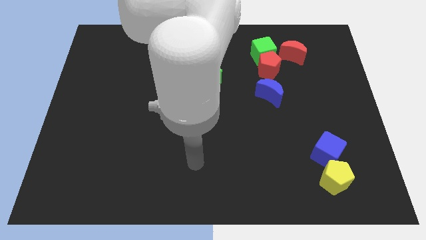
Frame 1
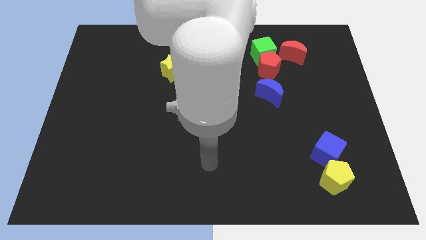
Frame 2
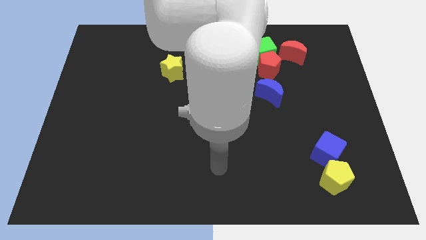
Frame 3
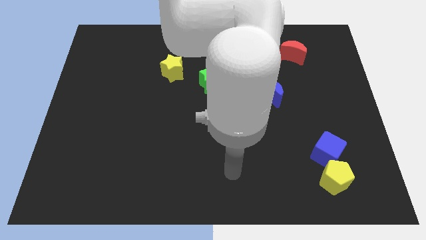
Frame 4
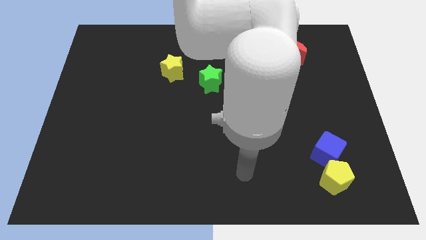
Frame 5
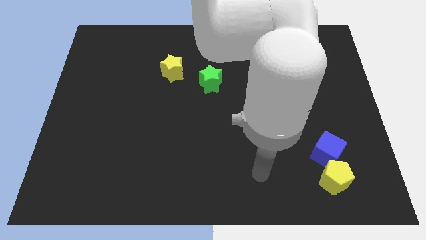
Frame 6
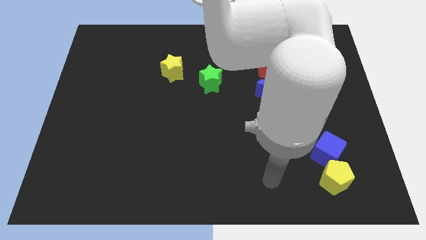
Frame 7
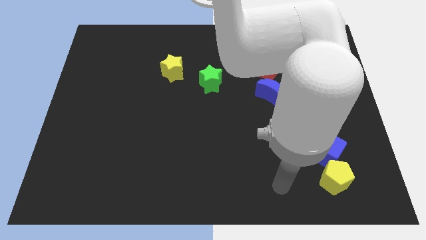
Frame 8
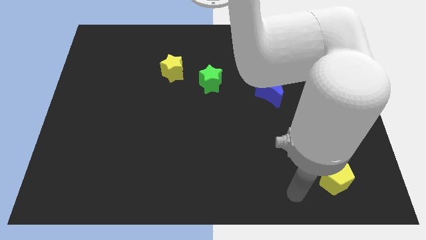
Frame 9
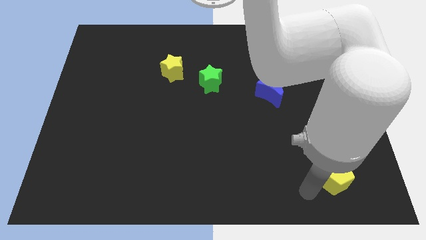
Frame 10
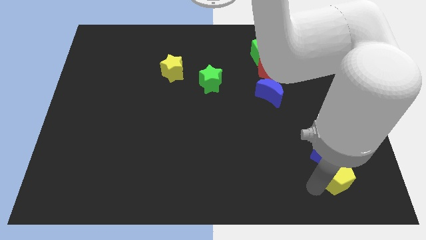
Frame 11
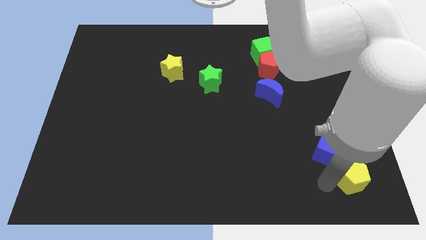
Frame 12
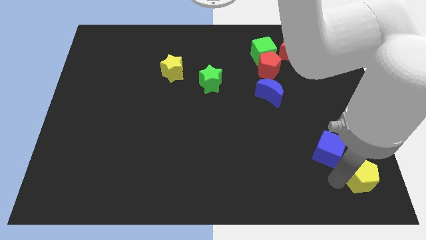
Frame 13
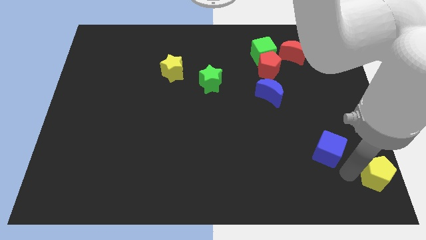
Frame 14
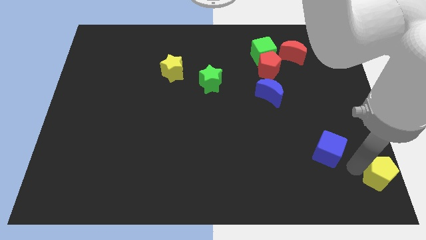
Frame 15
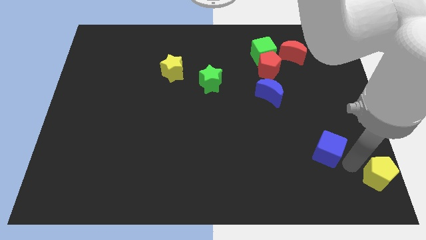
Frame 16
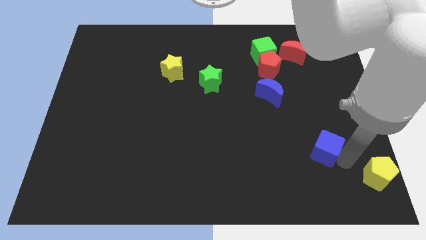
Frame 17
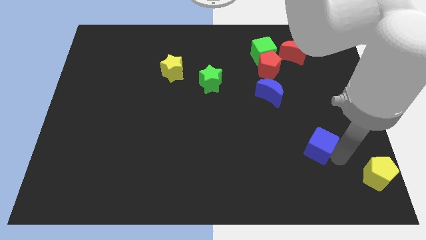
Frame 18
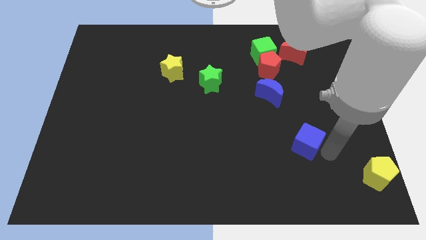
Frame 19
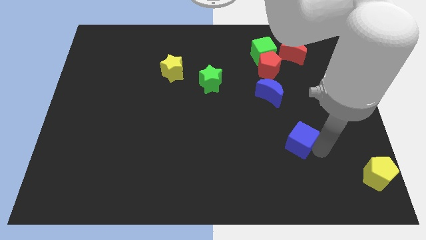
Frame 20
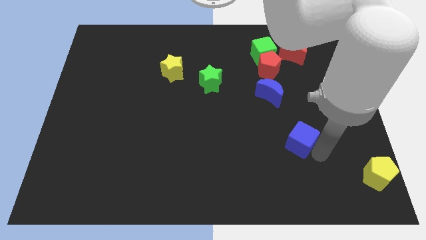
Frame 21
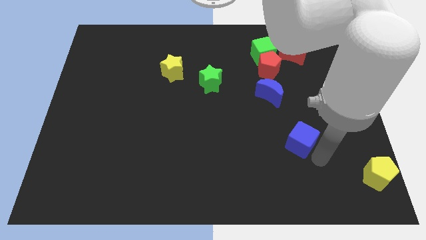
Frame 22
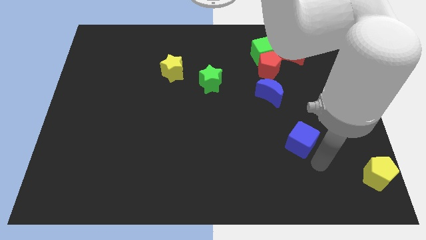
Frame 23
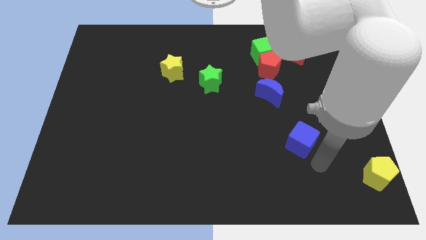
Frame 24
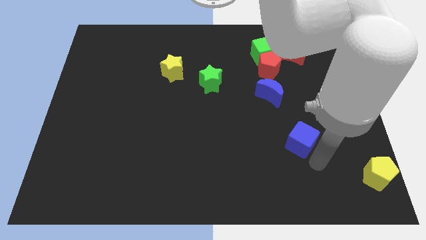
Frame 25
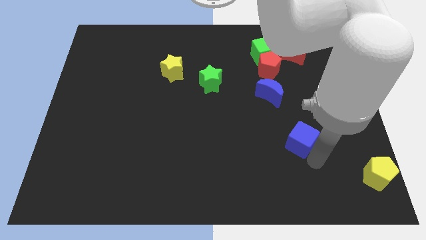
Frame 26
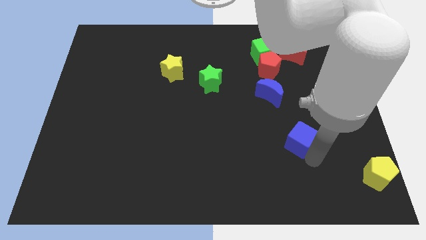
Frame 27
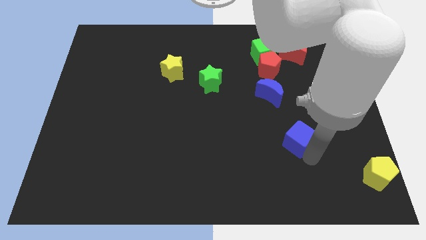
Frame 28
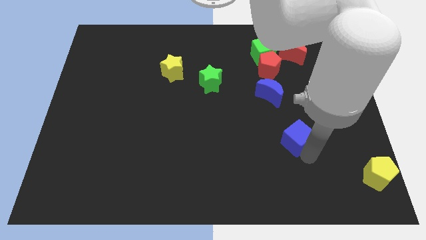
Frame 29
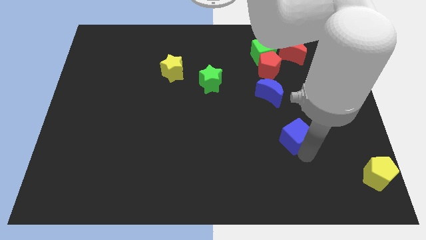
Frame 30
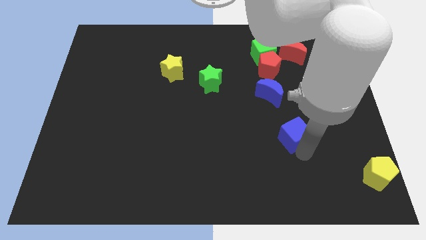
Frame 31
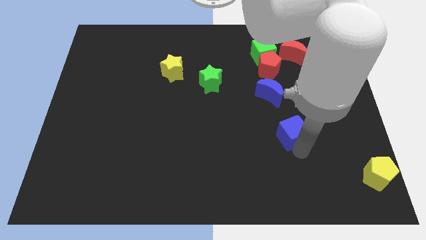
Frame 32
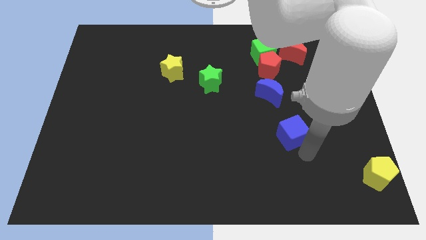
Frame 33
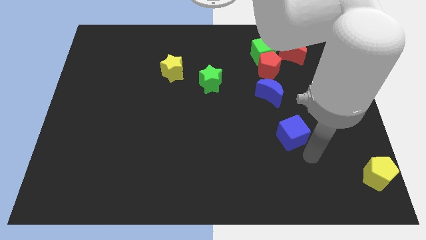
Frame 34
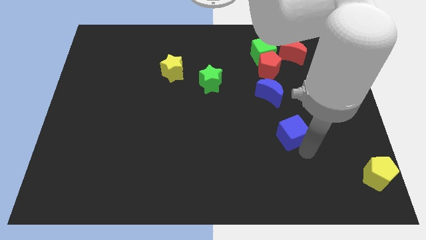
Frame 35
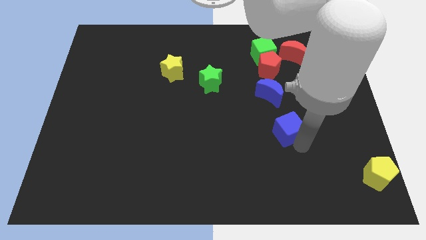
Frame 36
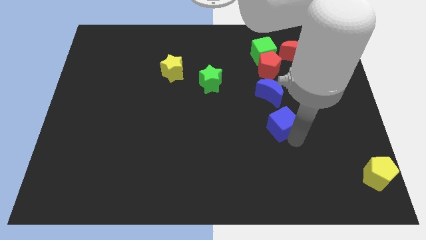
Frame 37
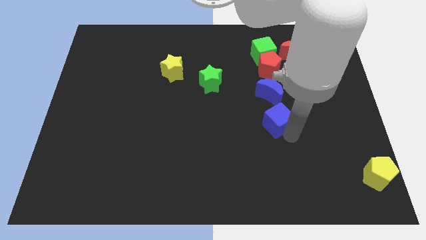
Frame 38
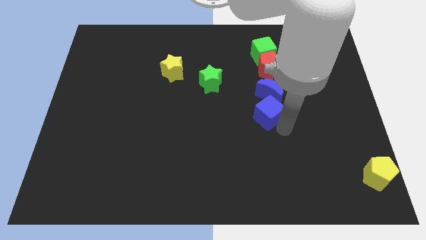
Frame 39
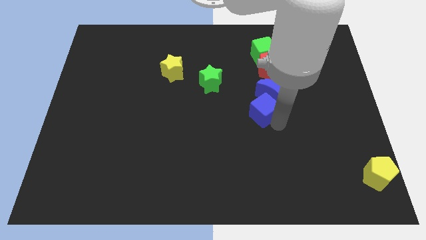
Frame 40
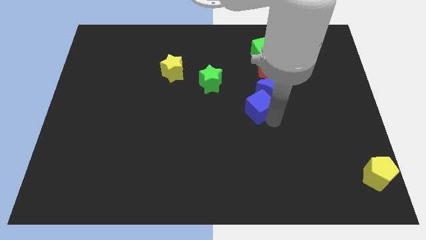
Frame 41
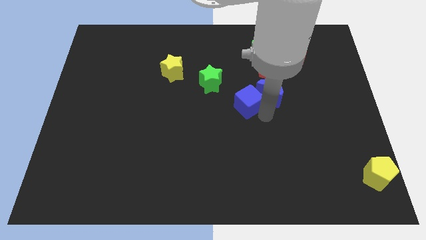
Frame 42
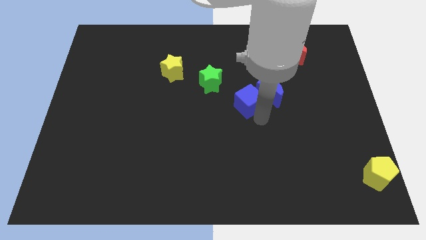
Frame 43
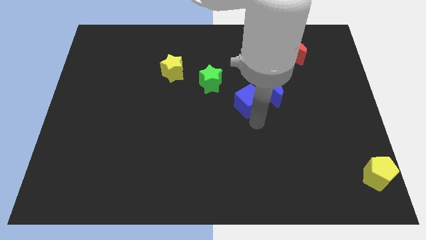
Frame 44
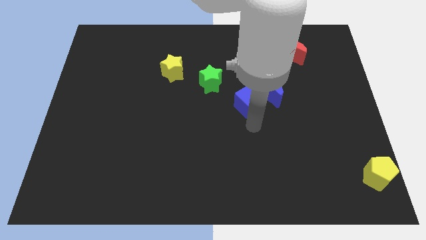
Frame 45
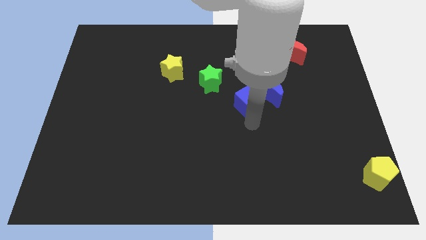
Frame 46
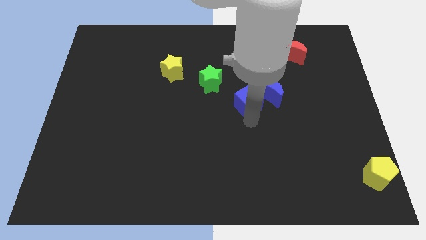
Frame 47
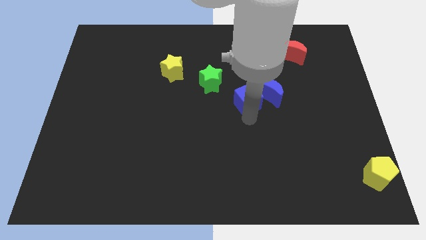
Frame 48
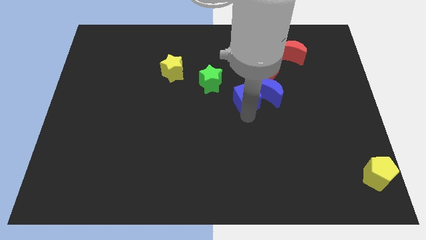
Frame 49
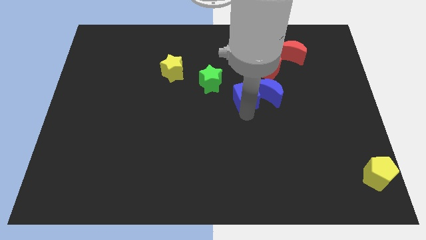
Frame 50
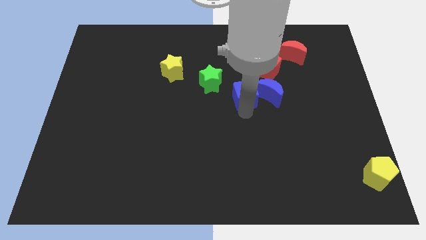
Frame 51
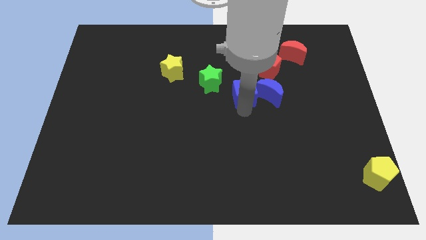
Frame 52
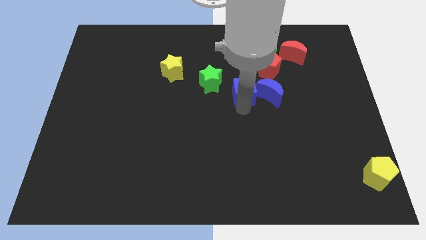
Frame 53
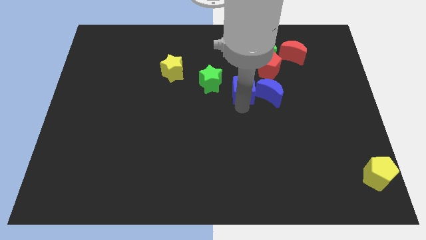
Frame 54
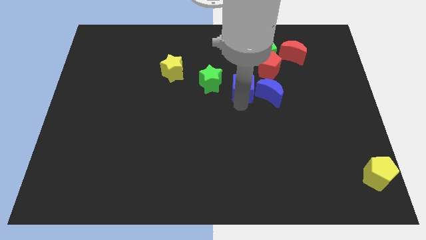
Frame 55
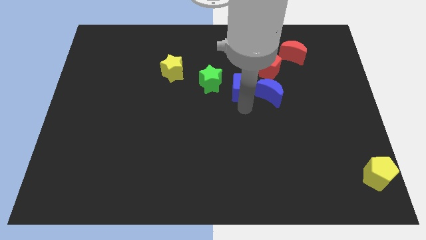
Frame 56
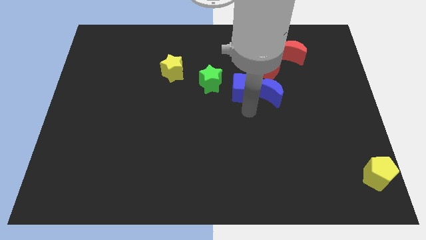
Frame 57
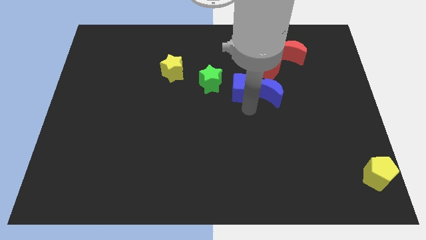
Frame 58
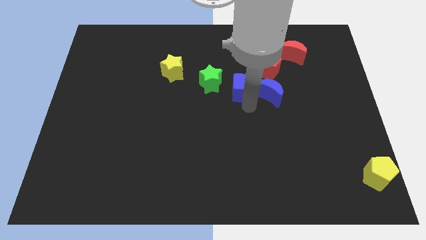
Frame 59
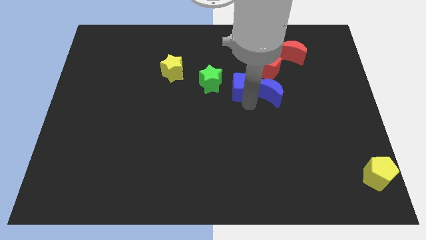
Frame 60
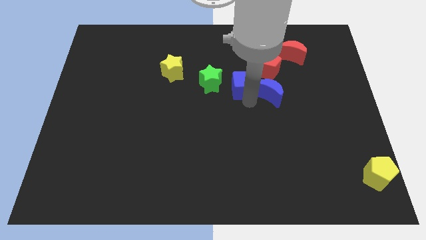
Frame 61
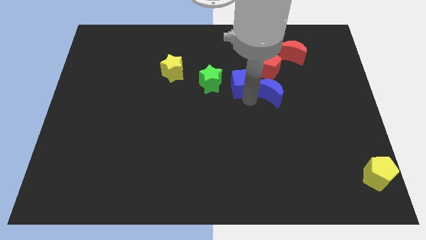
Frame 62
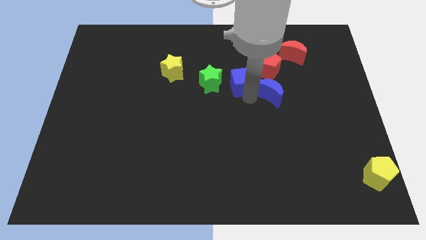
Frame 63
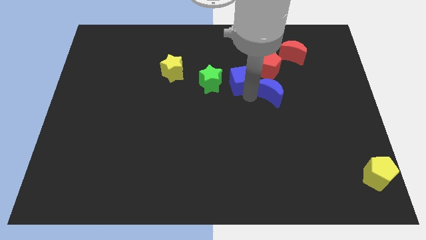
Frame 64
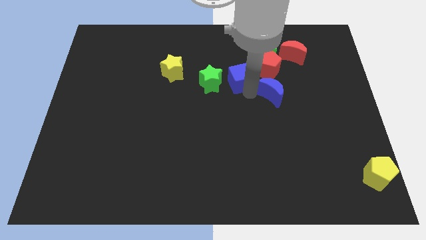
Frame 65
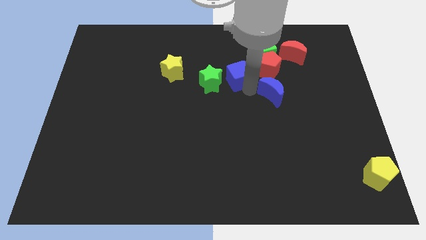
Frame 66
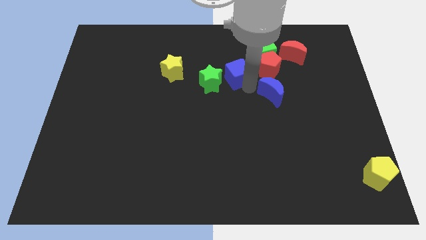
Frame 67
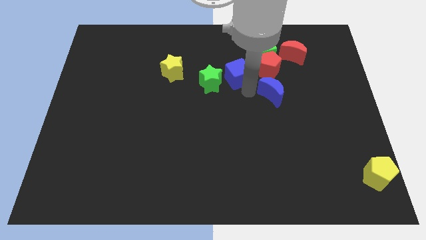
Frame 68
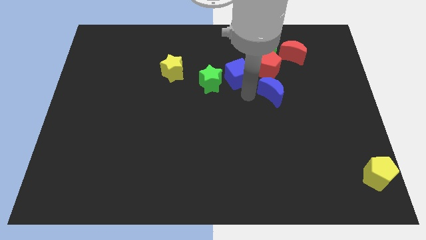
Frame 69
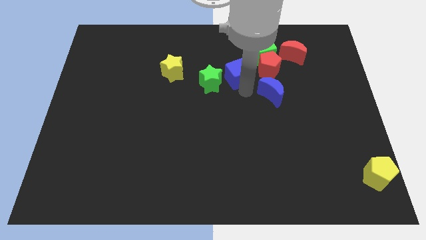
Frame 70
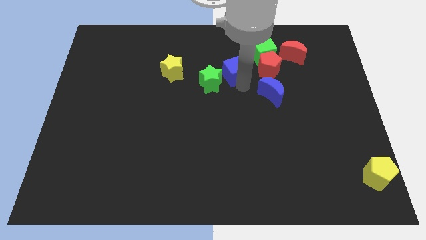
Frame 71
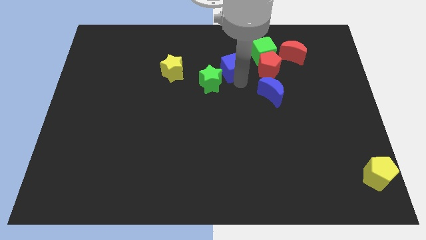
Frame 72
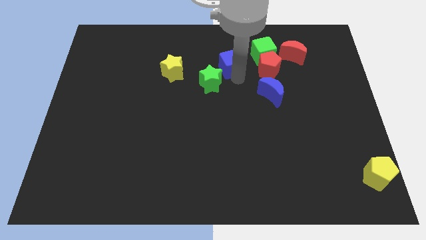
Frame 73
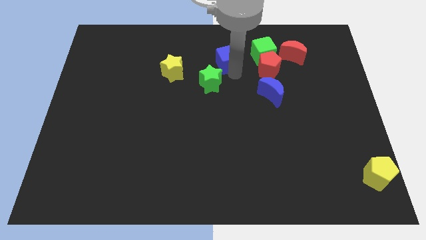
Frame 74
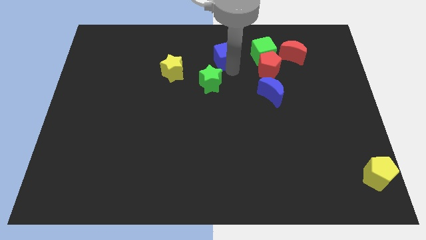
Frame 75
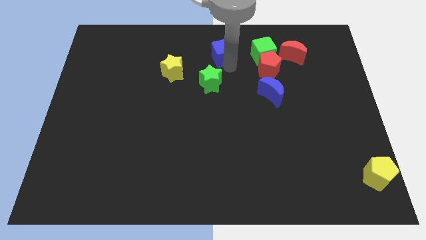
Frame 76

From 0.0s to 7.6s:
put the blue cube to the top
